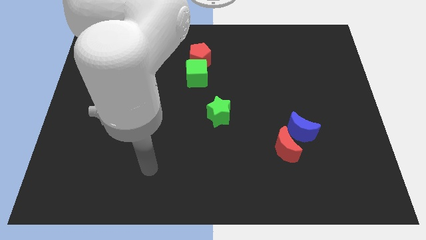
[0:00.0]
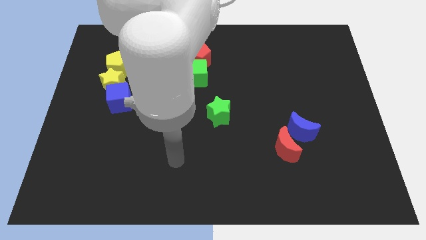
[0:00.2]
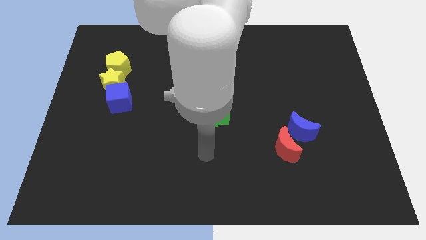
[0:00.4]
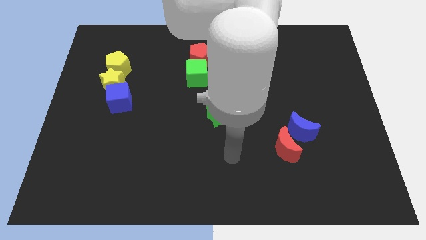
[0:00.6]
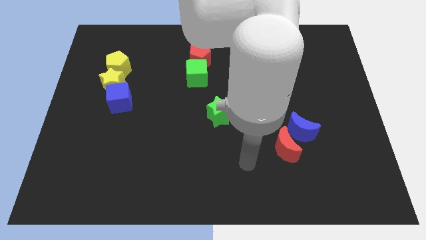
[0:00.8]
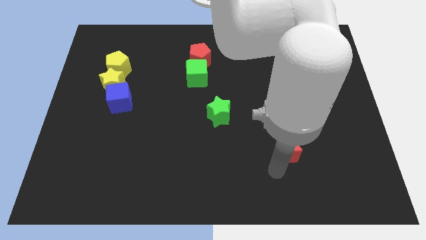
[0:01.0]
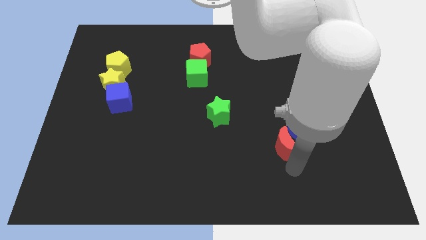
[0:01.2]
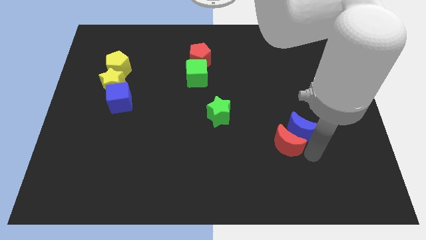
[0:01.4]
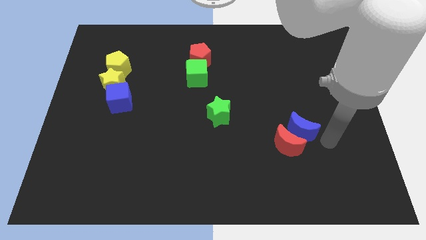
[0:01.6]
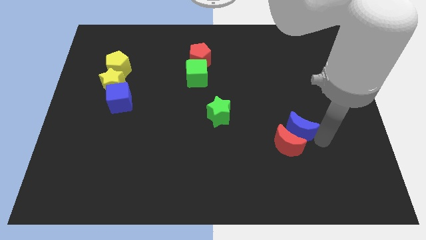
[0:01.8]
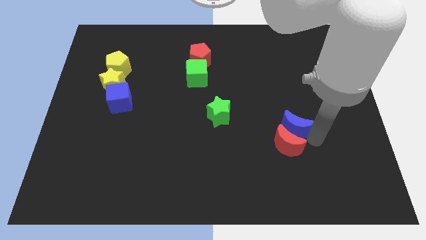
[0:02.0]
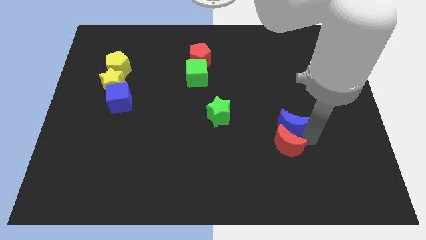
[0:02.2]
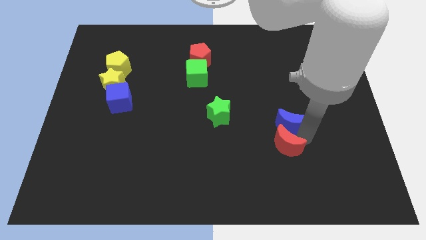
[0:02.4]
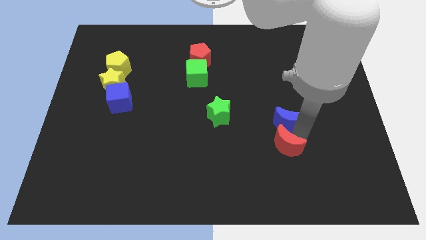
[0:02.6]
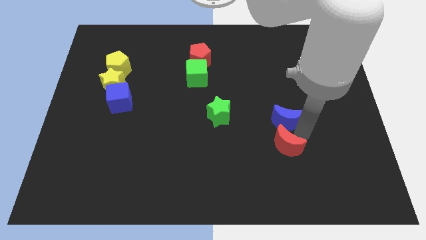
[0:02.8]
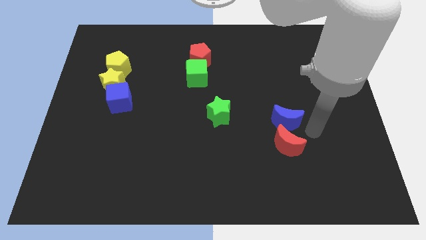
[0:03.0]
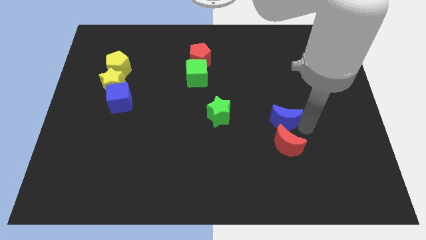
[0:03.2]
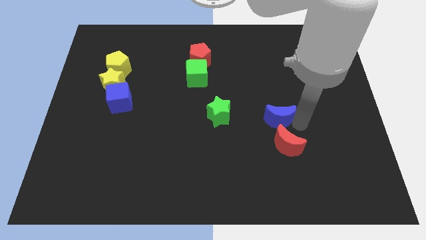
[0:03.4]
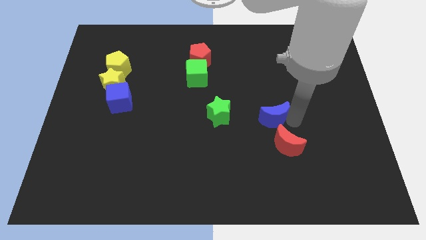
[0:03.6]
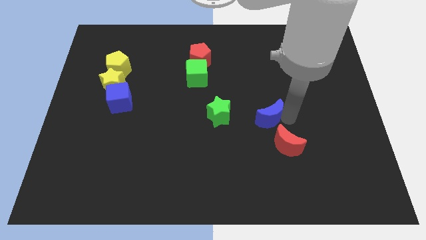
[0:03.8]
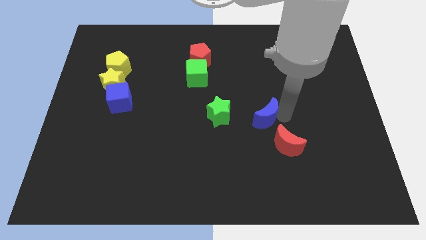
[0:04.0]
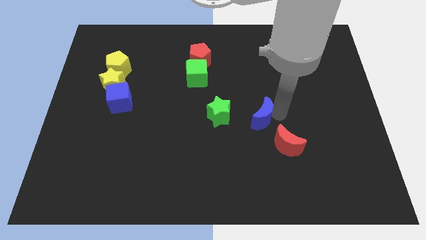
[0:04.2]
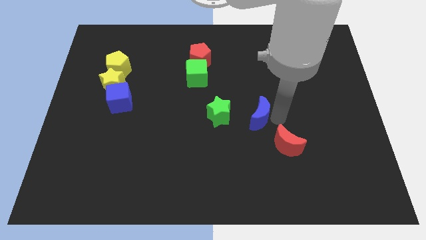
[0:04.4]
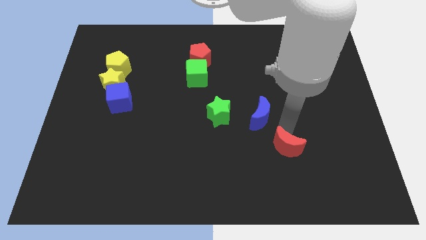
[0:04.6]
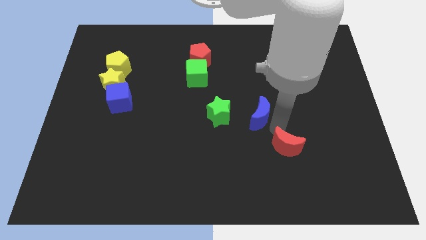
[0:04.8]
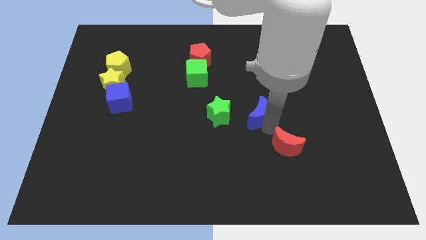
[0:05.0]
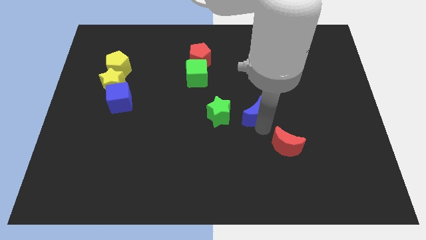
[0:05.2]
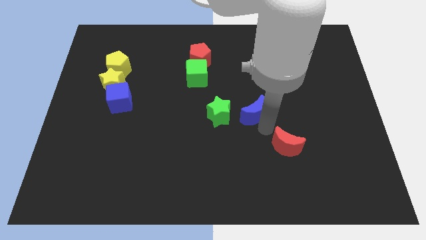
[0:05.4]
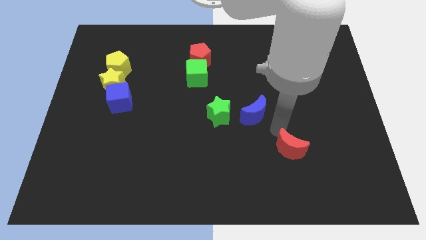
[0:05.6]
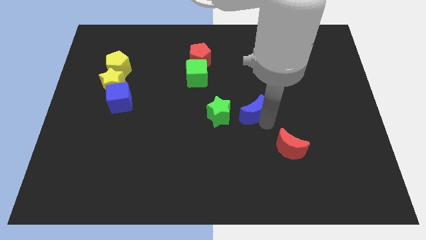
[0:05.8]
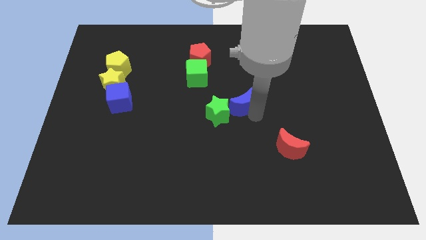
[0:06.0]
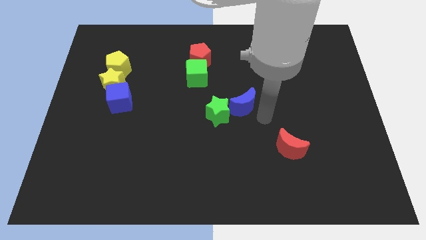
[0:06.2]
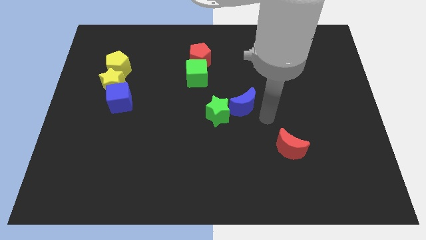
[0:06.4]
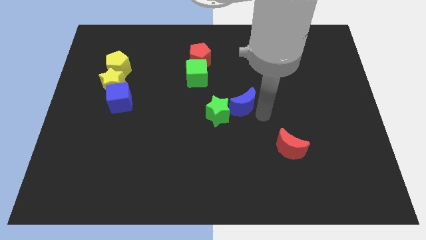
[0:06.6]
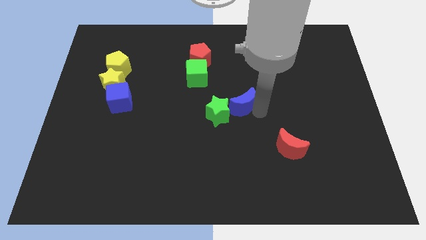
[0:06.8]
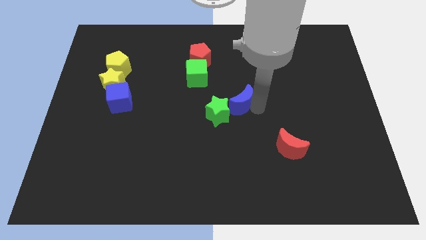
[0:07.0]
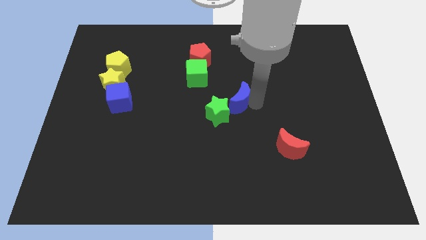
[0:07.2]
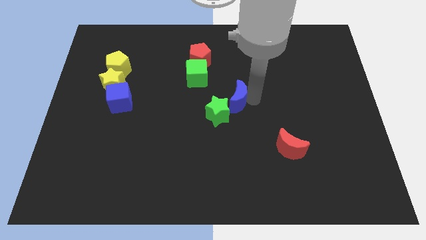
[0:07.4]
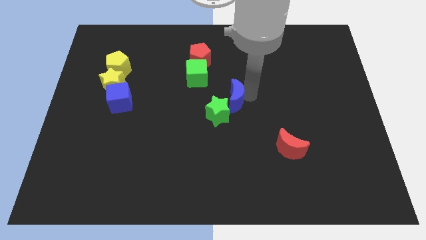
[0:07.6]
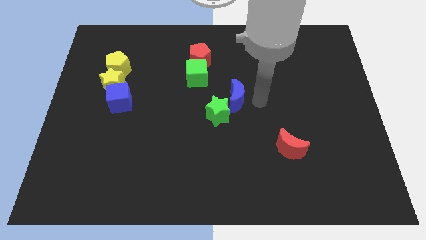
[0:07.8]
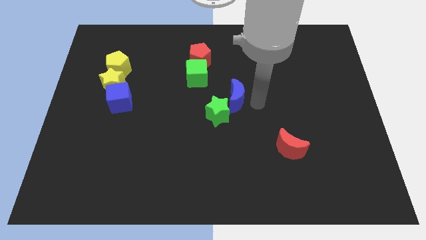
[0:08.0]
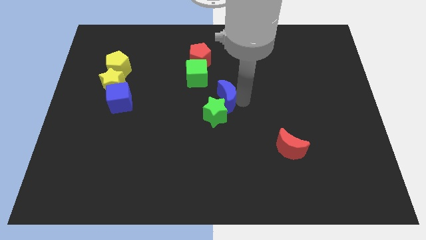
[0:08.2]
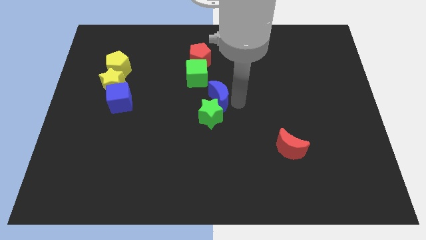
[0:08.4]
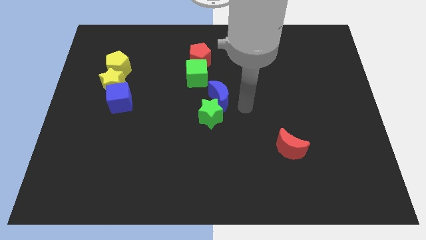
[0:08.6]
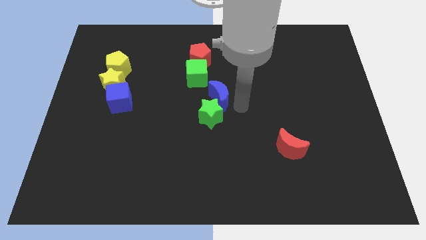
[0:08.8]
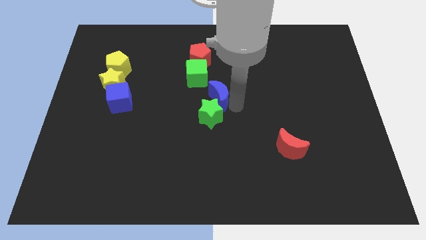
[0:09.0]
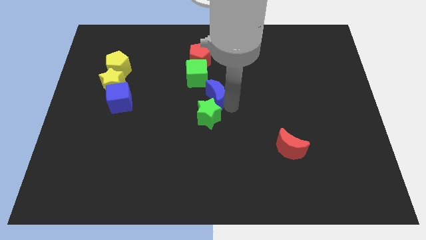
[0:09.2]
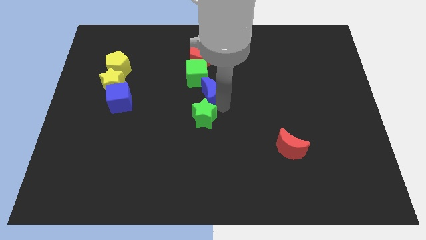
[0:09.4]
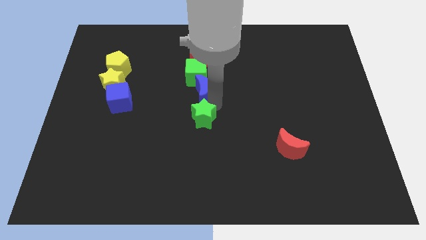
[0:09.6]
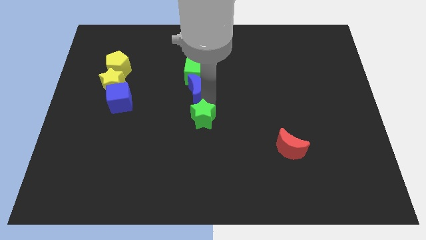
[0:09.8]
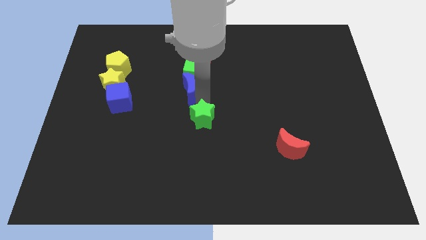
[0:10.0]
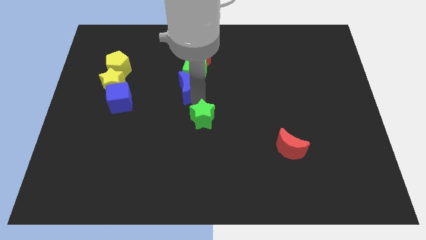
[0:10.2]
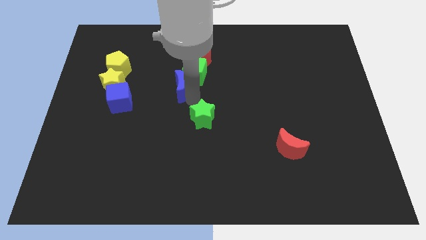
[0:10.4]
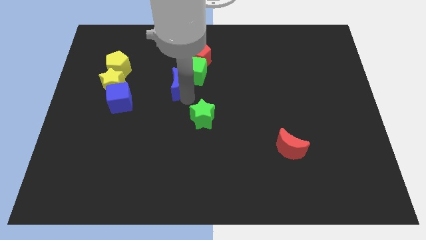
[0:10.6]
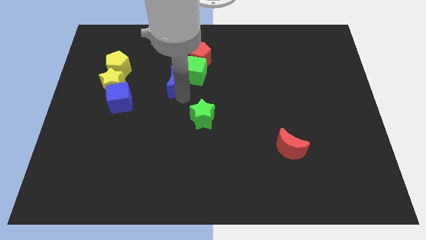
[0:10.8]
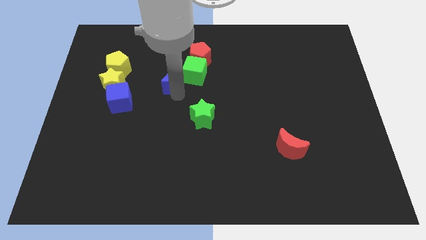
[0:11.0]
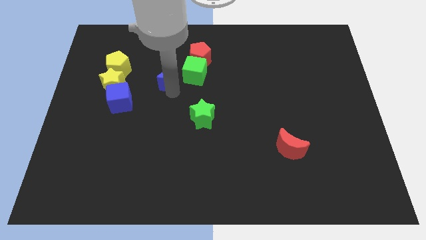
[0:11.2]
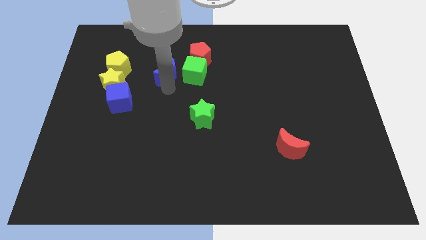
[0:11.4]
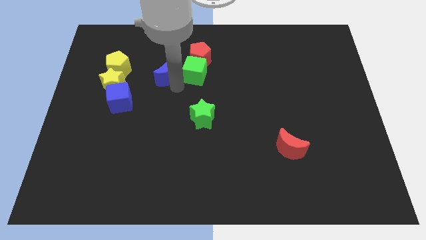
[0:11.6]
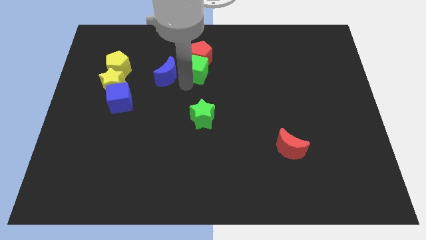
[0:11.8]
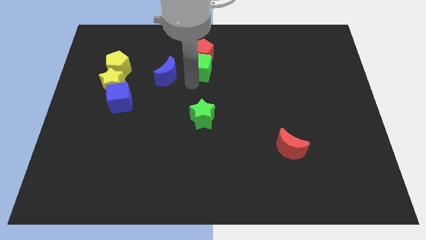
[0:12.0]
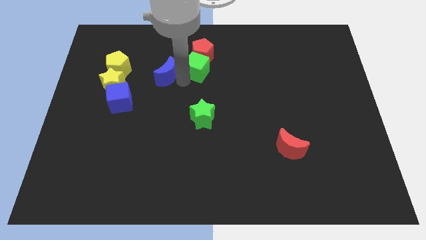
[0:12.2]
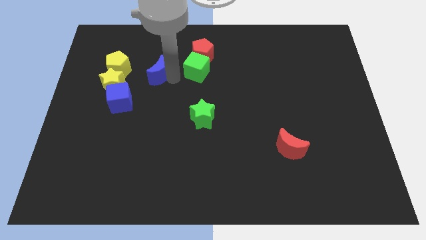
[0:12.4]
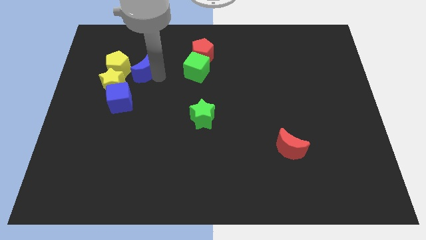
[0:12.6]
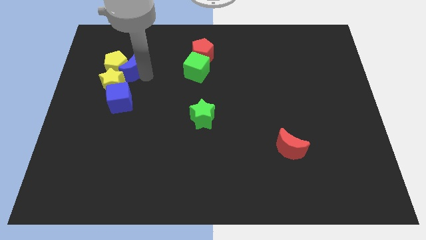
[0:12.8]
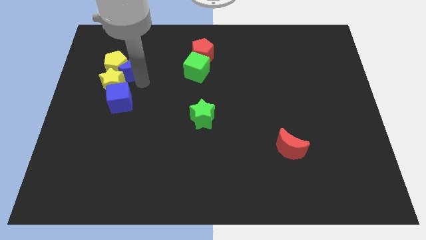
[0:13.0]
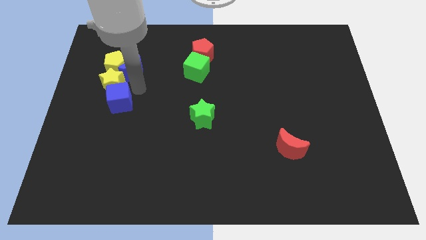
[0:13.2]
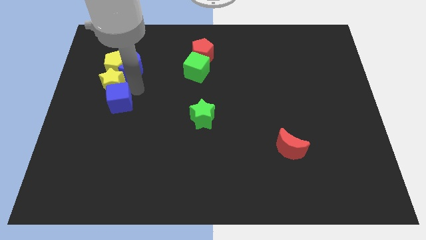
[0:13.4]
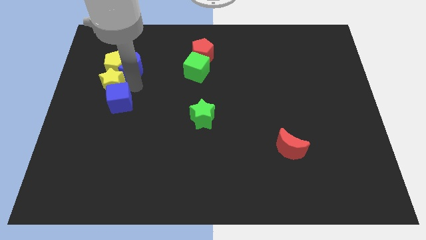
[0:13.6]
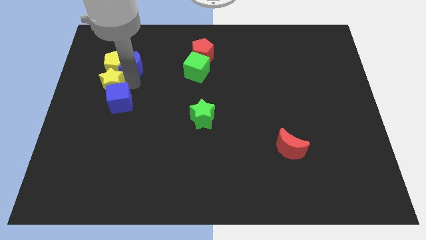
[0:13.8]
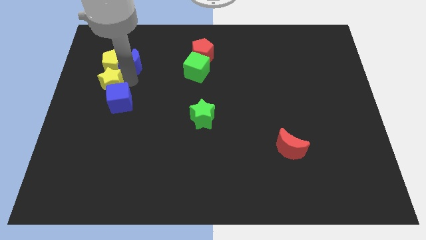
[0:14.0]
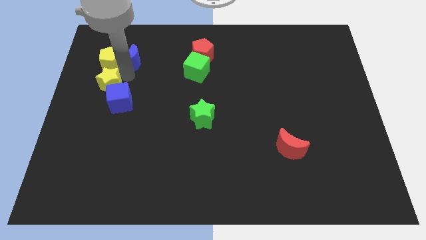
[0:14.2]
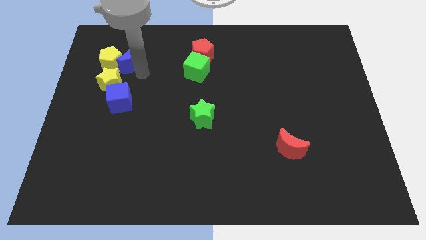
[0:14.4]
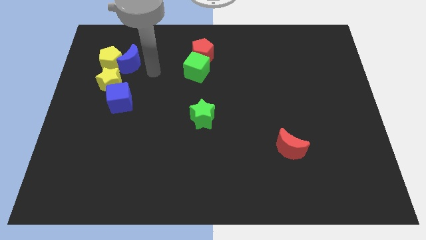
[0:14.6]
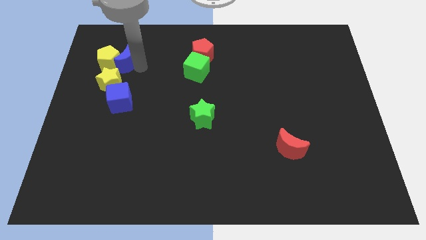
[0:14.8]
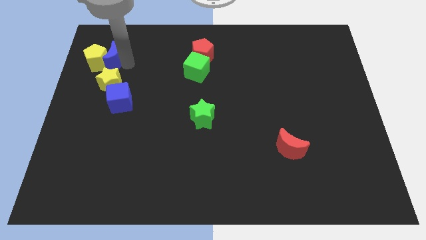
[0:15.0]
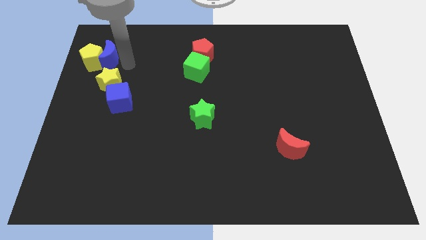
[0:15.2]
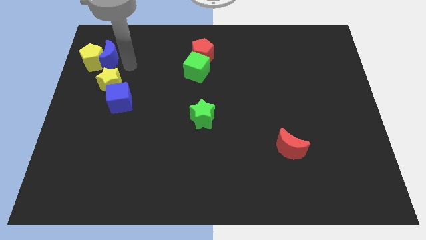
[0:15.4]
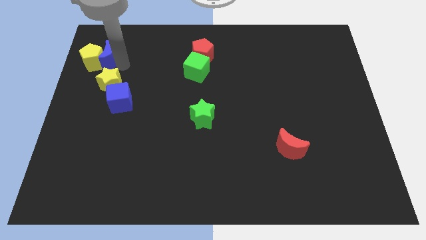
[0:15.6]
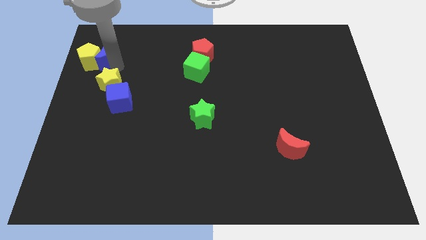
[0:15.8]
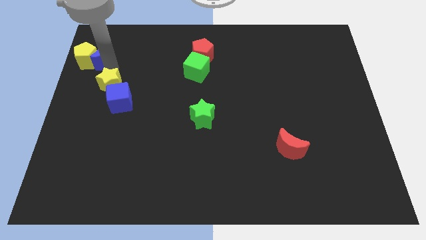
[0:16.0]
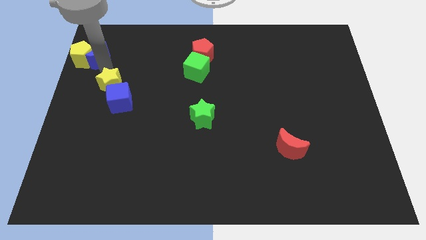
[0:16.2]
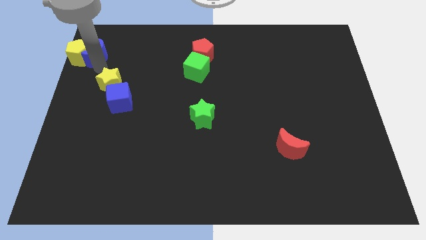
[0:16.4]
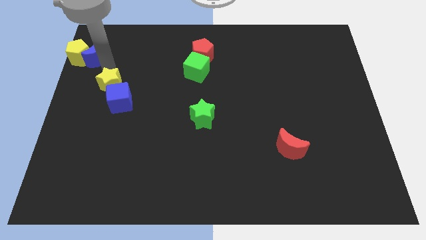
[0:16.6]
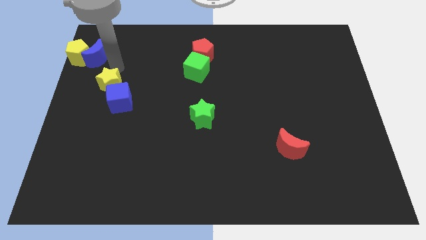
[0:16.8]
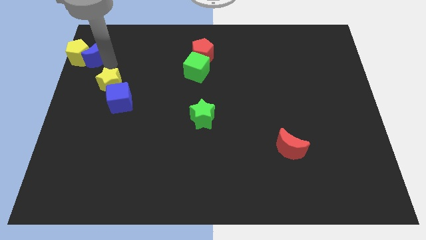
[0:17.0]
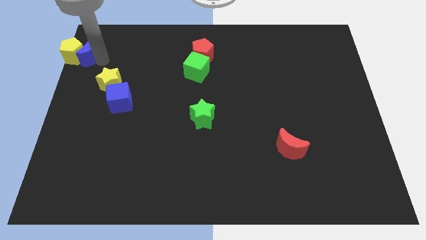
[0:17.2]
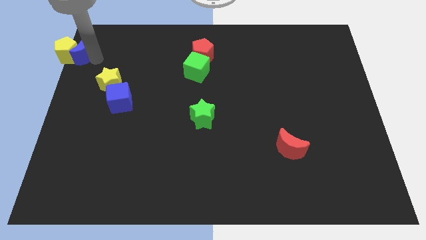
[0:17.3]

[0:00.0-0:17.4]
push the blue moon to the upper left corner
